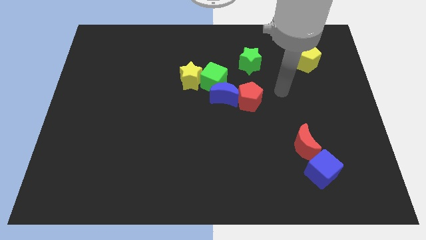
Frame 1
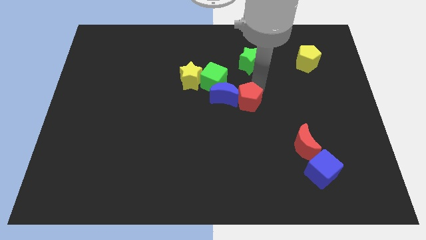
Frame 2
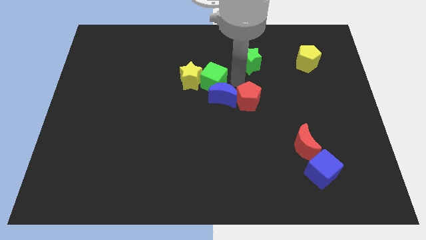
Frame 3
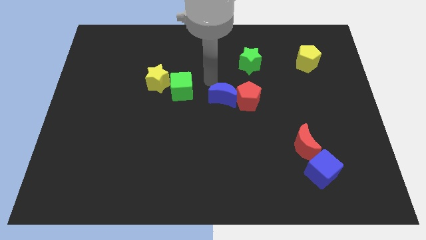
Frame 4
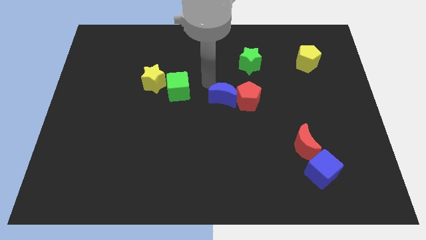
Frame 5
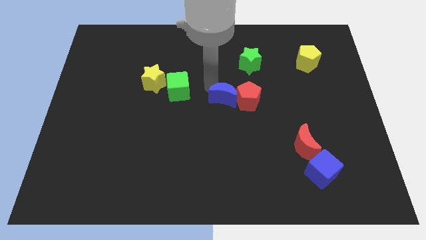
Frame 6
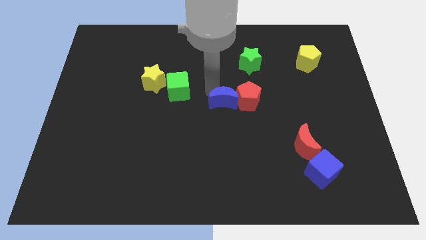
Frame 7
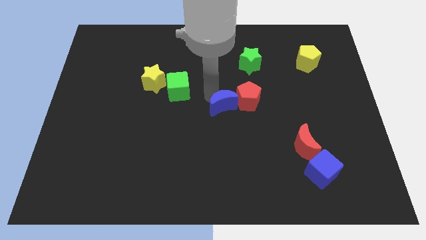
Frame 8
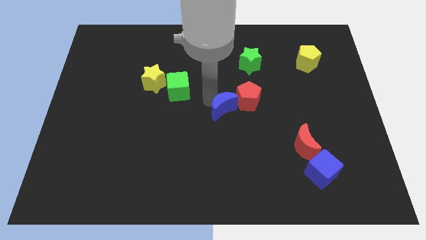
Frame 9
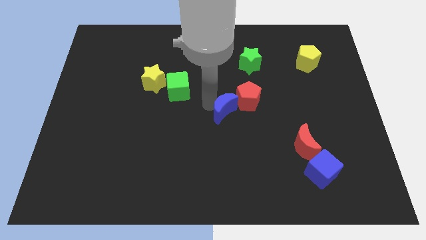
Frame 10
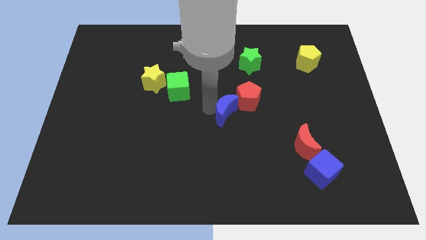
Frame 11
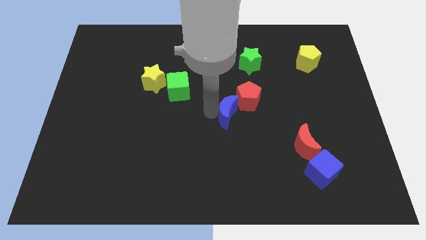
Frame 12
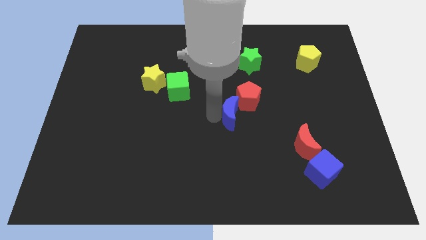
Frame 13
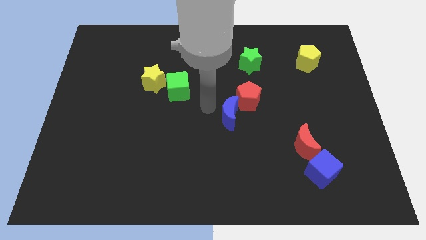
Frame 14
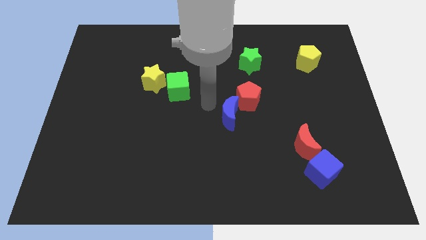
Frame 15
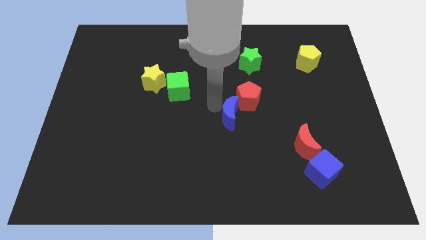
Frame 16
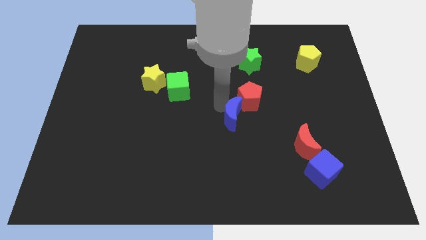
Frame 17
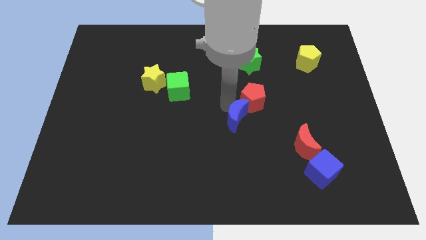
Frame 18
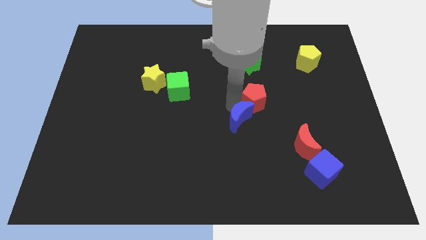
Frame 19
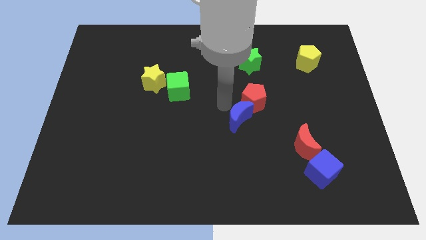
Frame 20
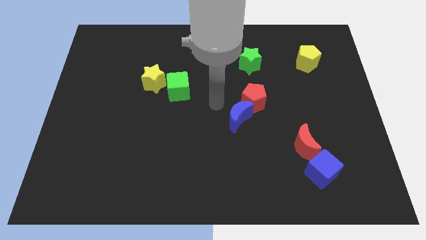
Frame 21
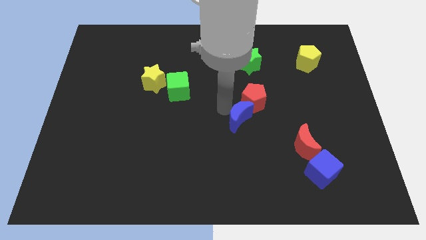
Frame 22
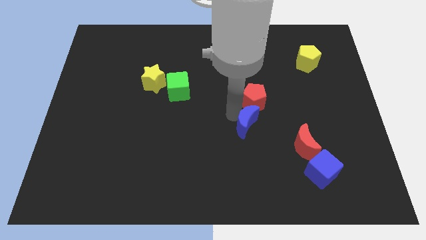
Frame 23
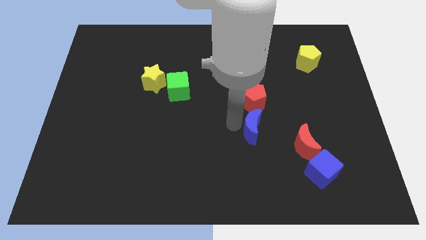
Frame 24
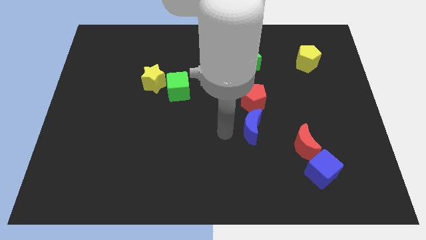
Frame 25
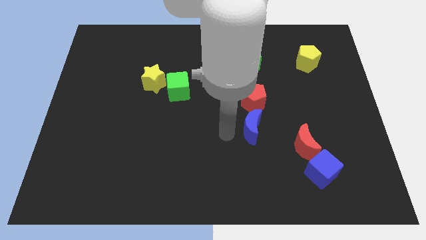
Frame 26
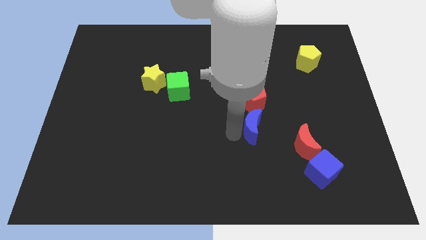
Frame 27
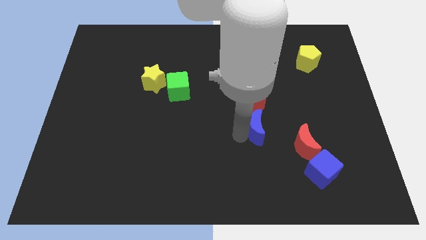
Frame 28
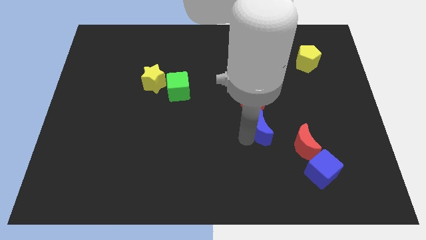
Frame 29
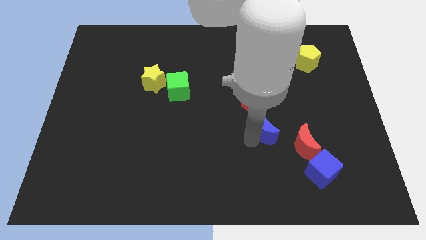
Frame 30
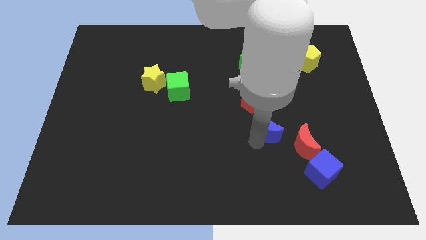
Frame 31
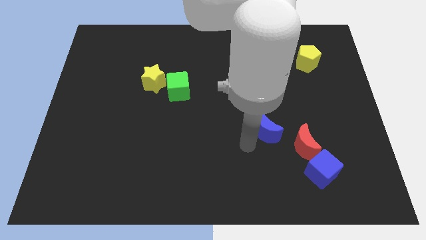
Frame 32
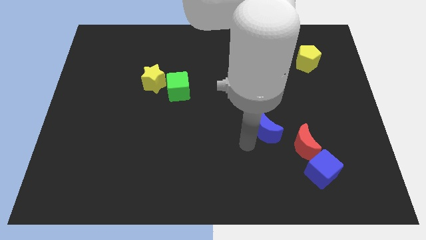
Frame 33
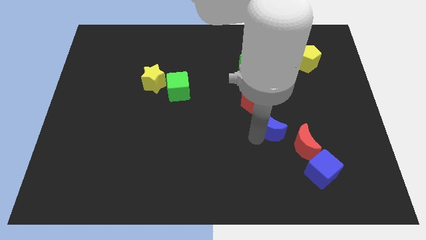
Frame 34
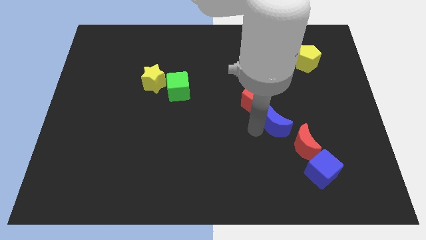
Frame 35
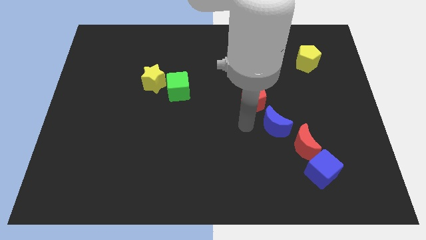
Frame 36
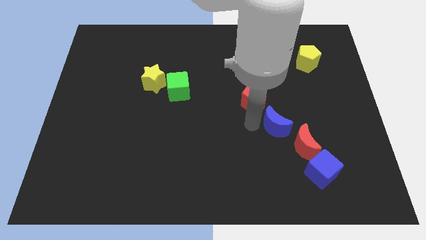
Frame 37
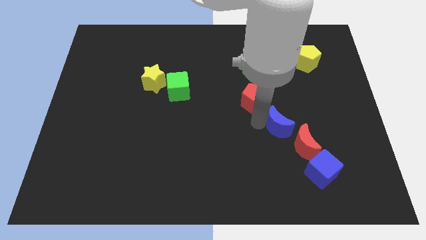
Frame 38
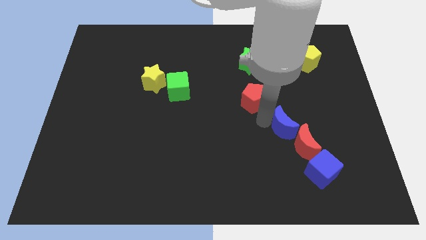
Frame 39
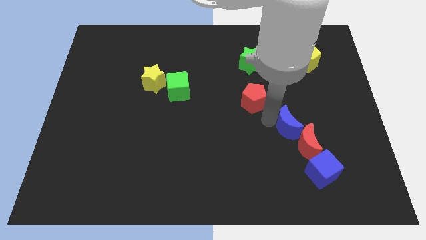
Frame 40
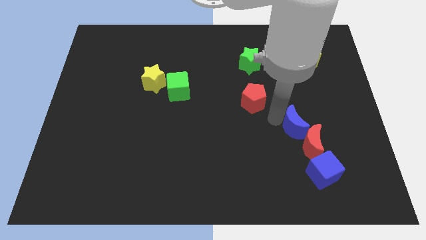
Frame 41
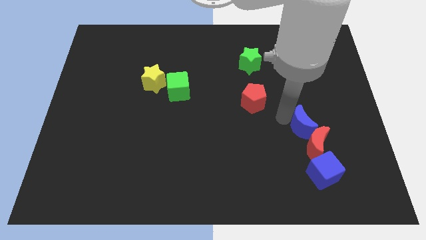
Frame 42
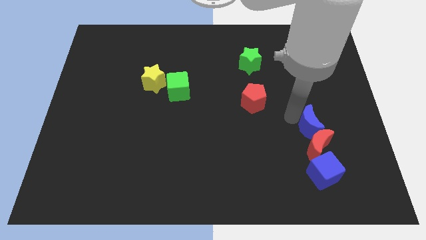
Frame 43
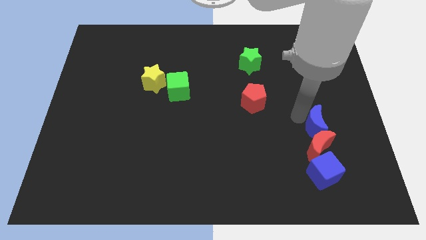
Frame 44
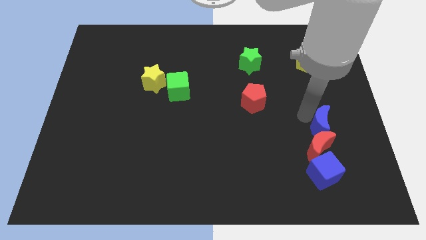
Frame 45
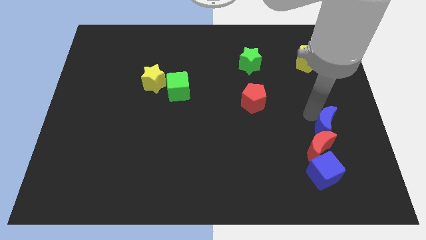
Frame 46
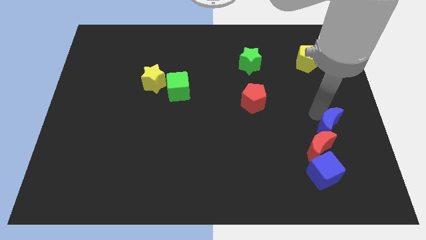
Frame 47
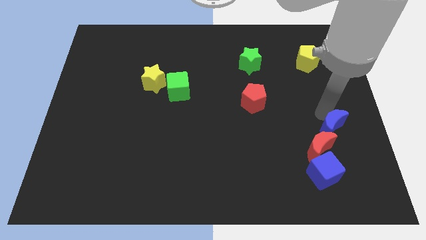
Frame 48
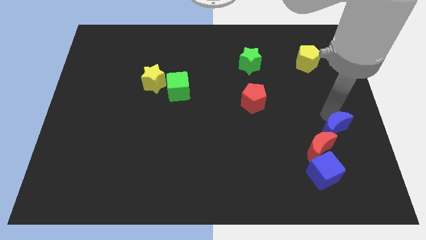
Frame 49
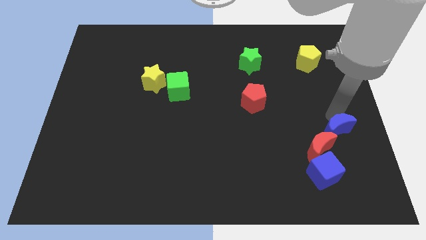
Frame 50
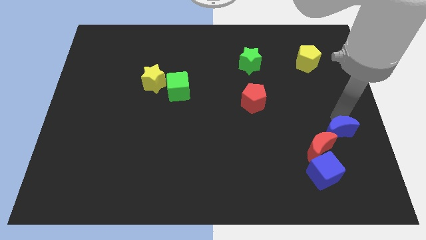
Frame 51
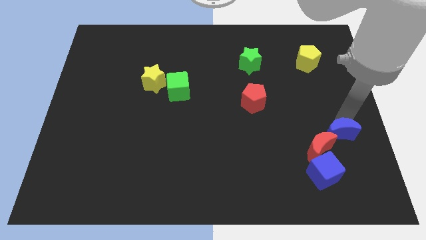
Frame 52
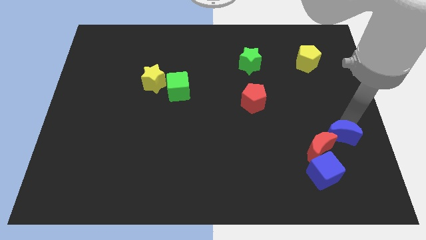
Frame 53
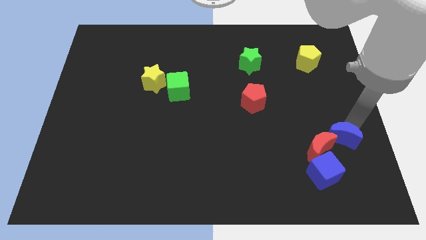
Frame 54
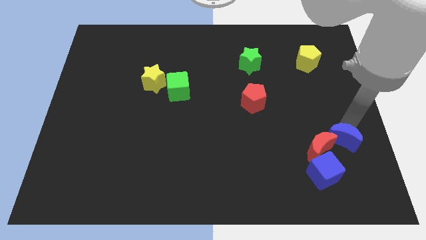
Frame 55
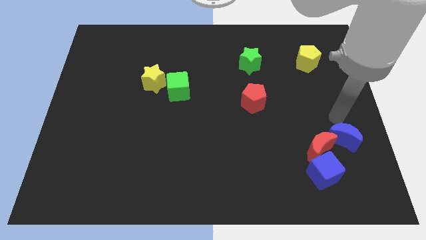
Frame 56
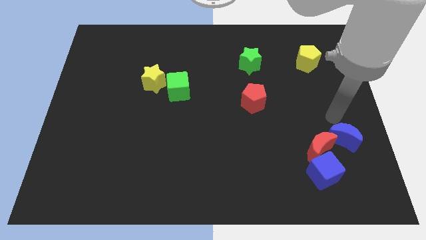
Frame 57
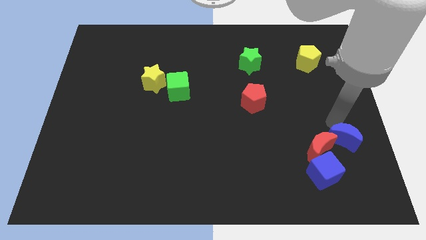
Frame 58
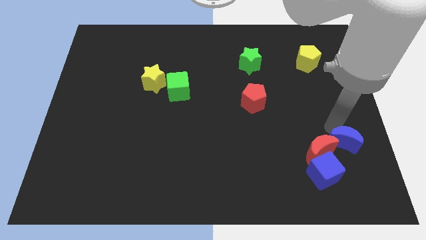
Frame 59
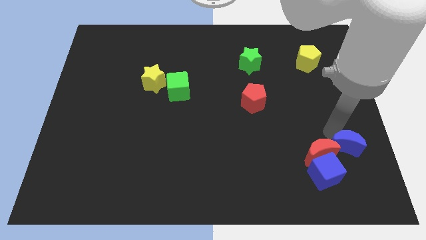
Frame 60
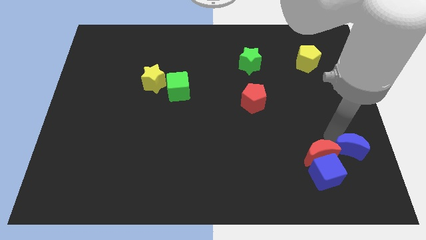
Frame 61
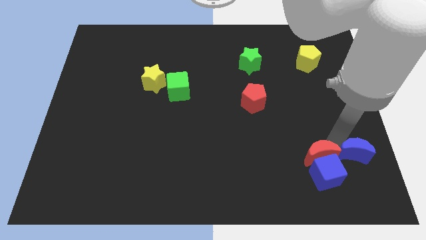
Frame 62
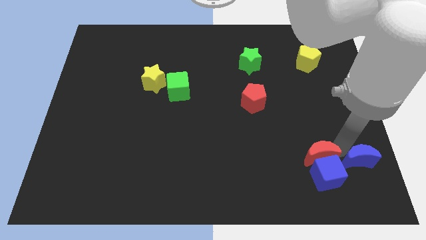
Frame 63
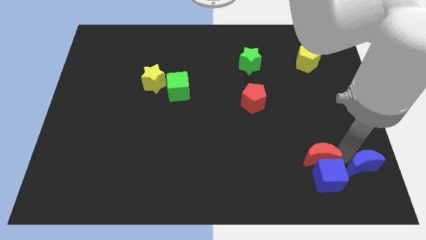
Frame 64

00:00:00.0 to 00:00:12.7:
put the blue moon to the bottom right

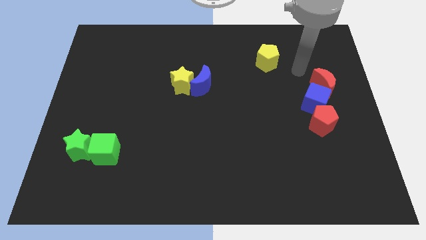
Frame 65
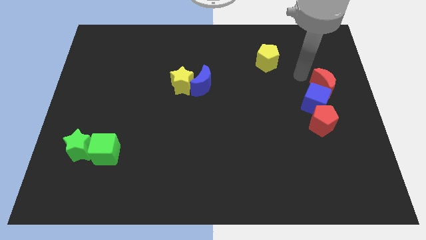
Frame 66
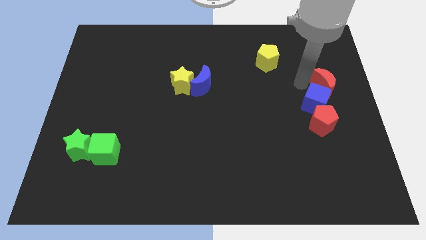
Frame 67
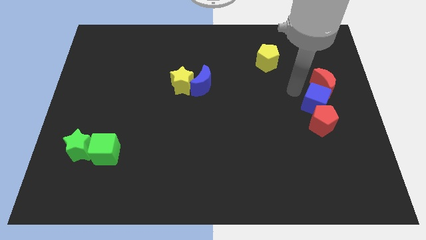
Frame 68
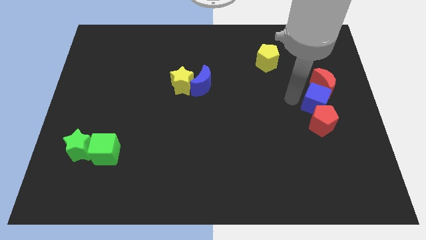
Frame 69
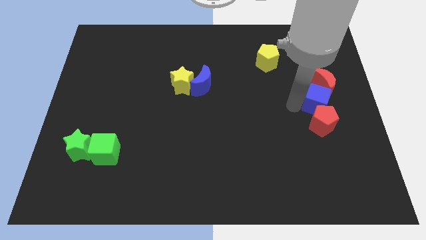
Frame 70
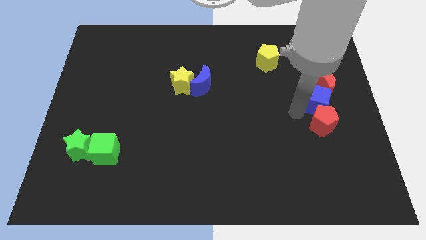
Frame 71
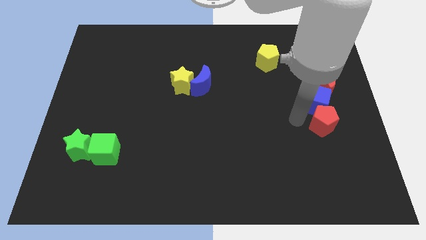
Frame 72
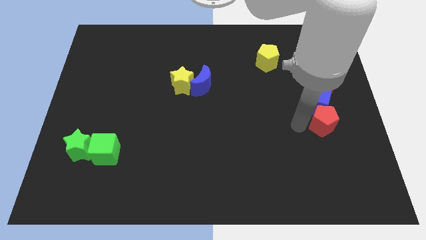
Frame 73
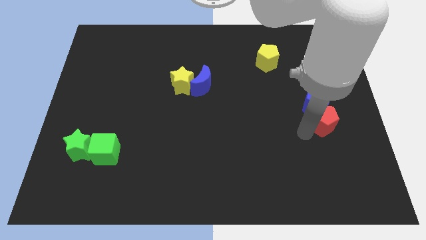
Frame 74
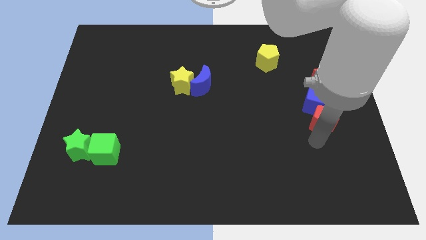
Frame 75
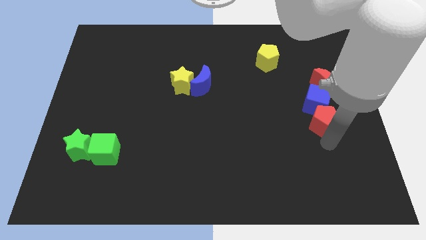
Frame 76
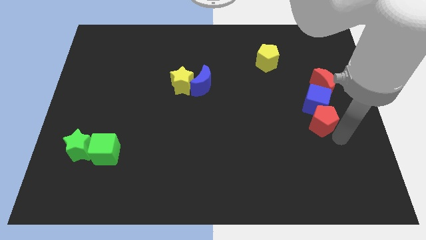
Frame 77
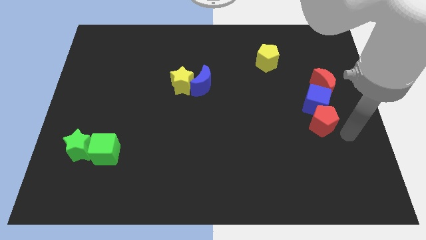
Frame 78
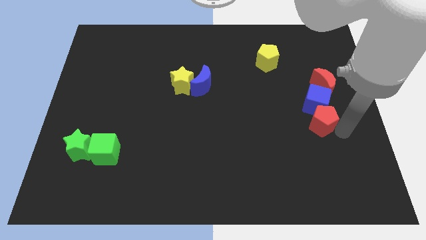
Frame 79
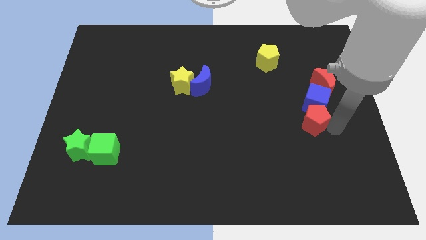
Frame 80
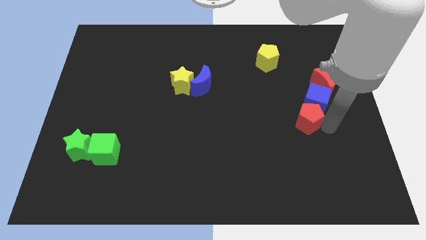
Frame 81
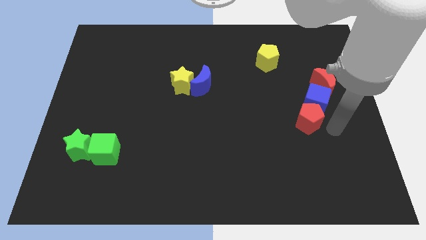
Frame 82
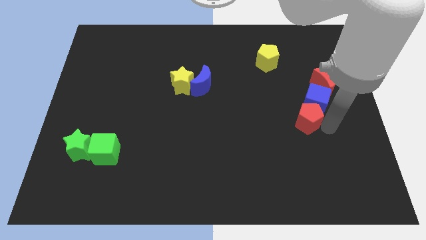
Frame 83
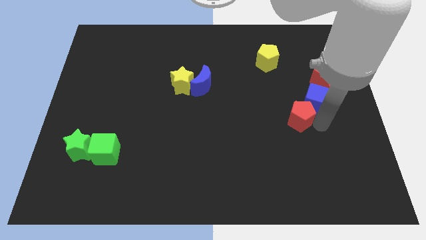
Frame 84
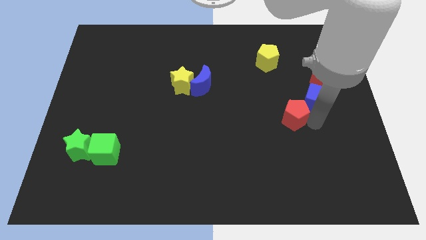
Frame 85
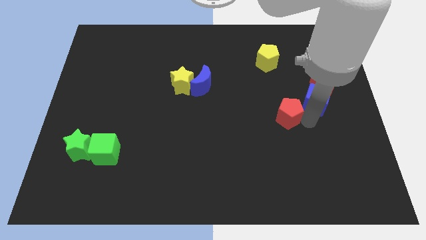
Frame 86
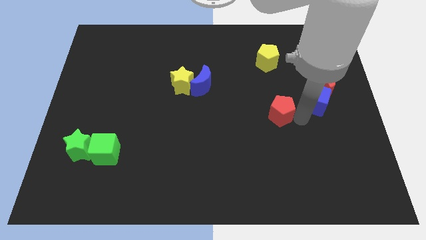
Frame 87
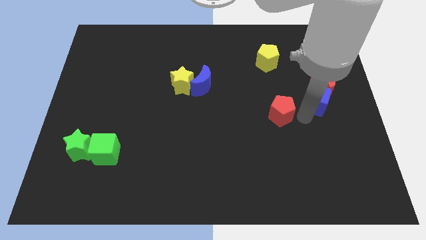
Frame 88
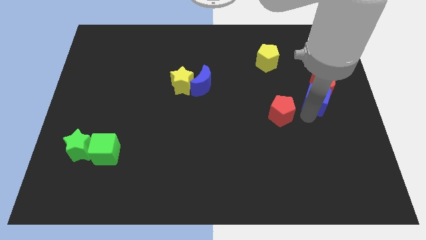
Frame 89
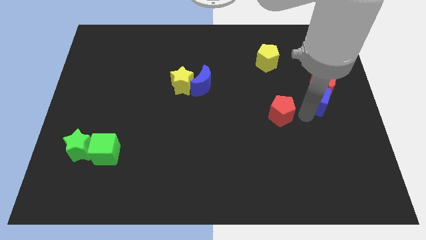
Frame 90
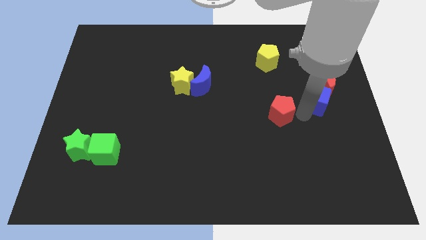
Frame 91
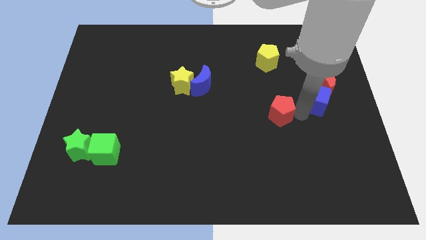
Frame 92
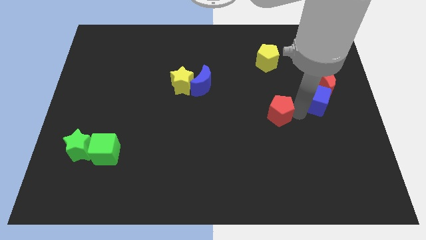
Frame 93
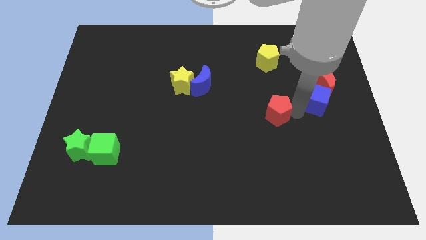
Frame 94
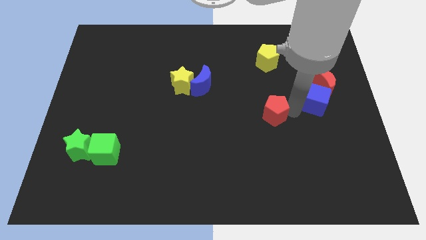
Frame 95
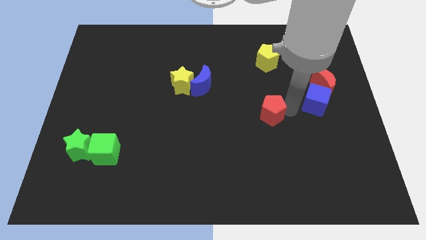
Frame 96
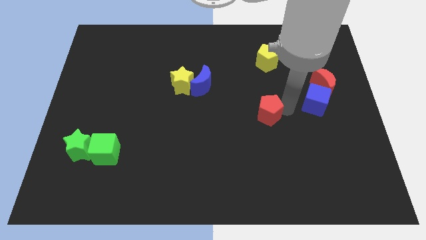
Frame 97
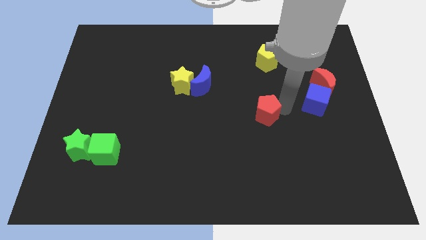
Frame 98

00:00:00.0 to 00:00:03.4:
slide the red pentagon to the middle of the board
